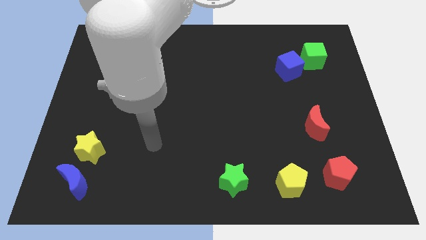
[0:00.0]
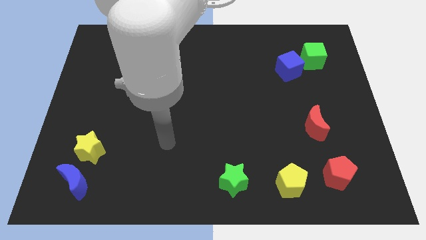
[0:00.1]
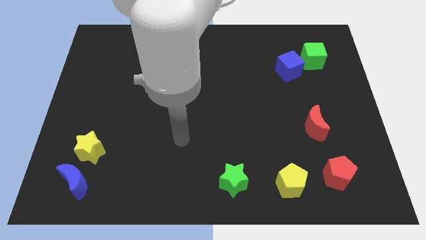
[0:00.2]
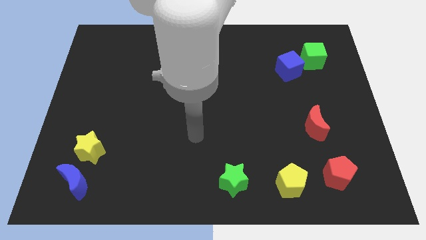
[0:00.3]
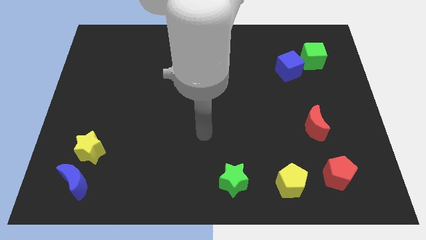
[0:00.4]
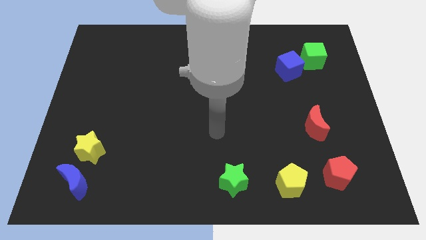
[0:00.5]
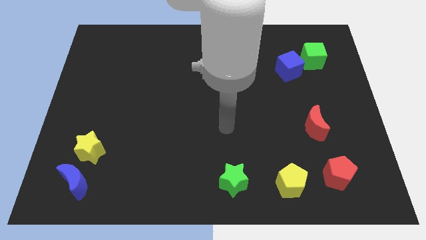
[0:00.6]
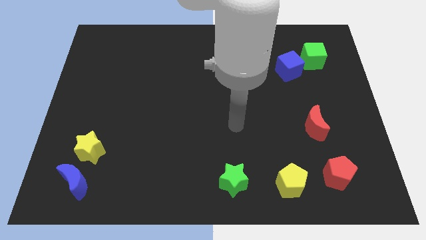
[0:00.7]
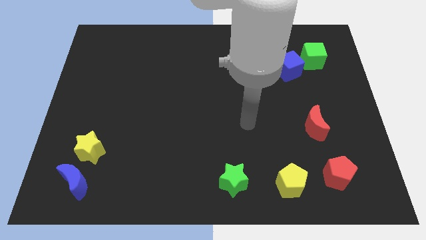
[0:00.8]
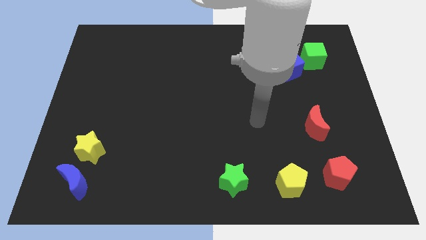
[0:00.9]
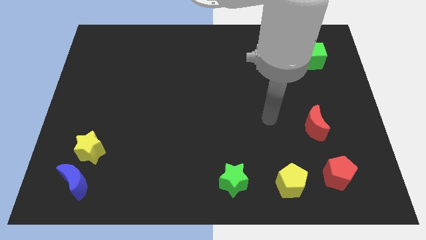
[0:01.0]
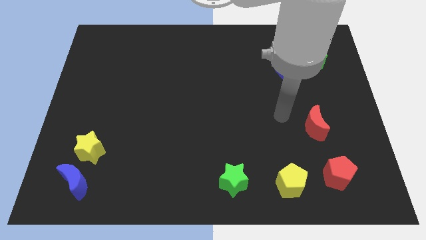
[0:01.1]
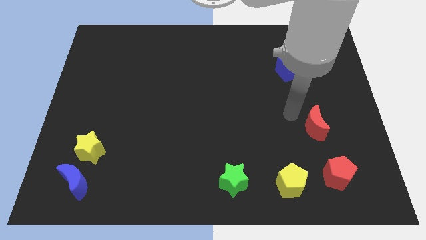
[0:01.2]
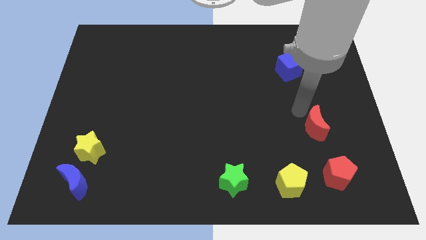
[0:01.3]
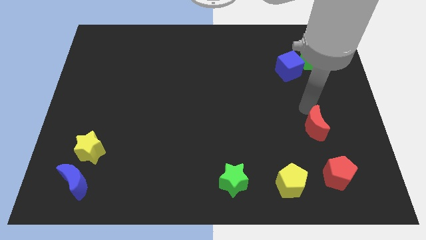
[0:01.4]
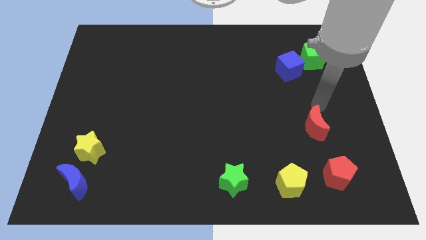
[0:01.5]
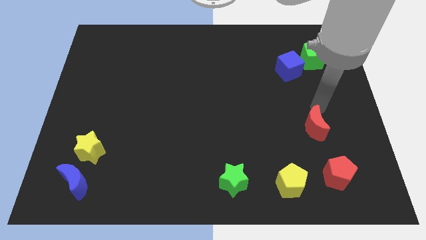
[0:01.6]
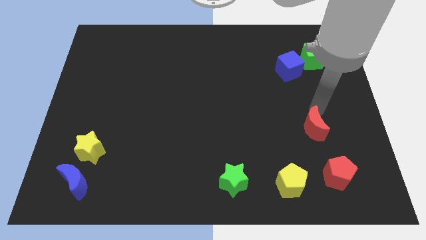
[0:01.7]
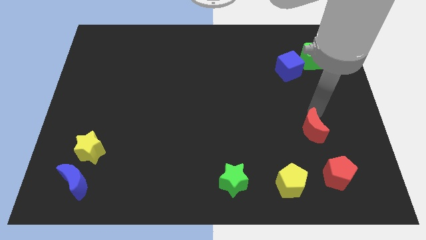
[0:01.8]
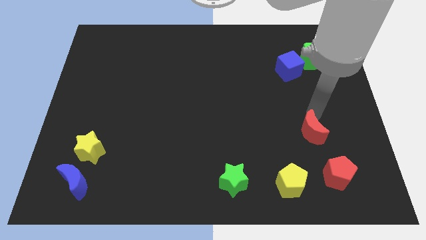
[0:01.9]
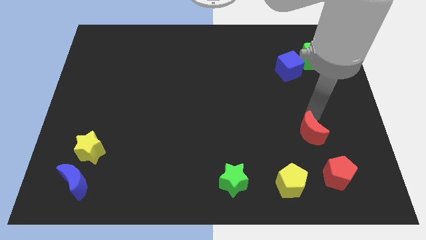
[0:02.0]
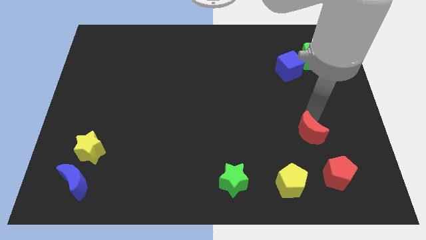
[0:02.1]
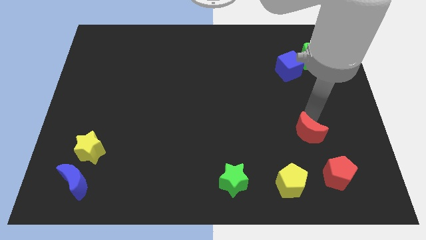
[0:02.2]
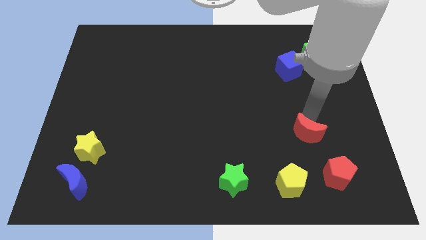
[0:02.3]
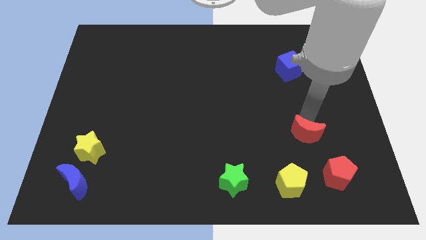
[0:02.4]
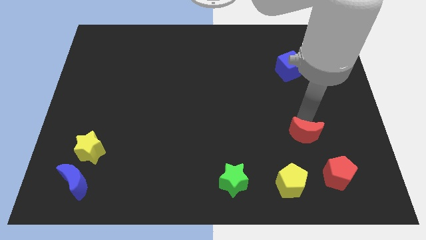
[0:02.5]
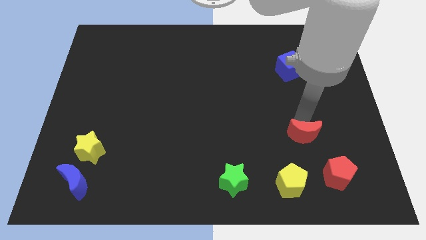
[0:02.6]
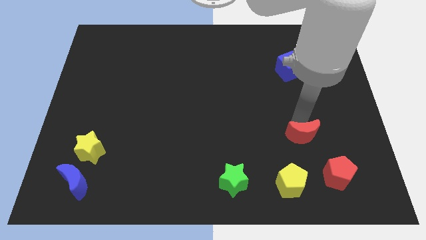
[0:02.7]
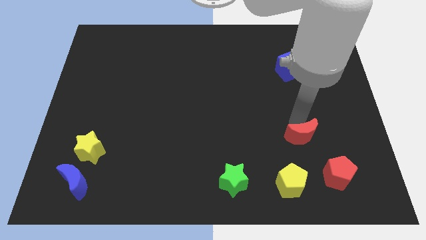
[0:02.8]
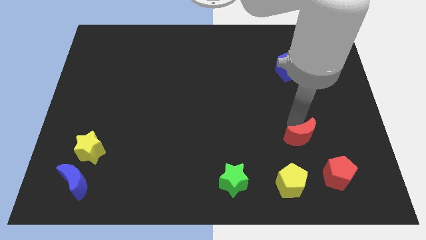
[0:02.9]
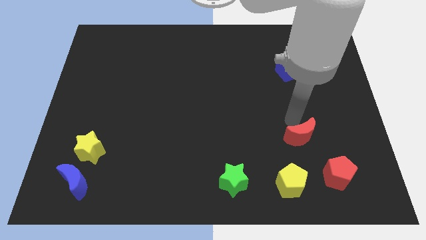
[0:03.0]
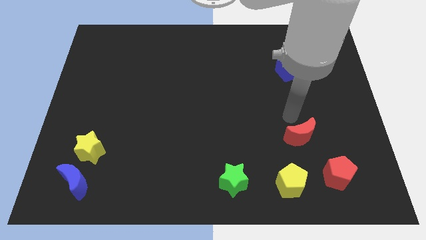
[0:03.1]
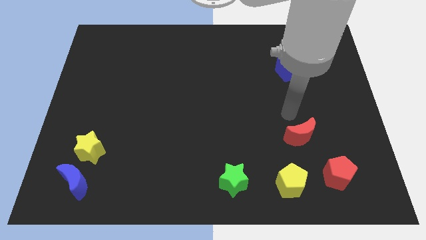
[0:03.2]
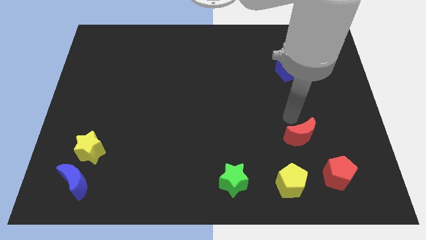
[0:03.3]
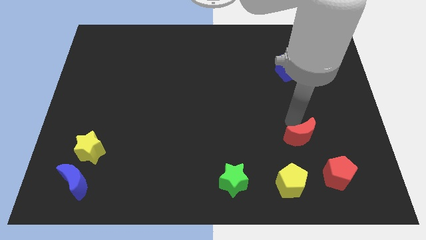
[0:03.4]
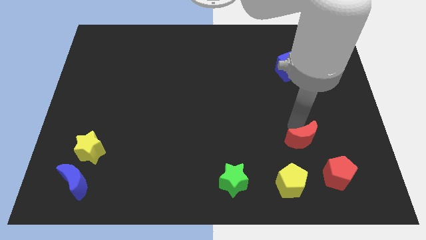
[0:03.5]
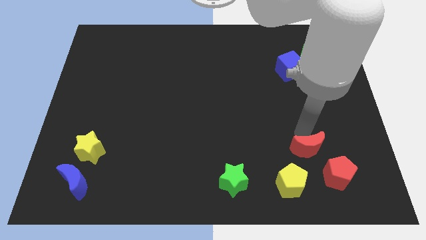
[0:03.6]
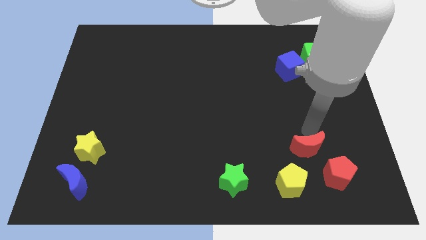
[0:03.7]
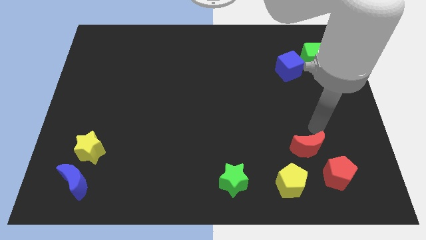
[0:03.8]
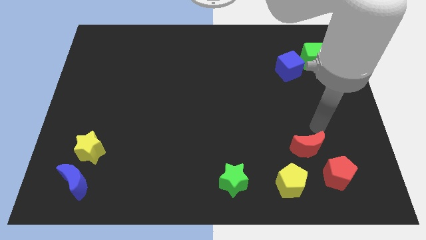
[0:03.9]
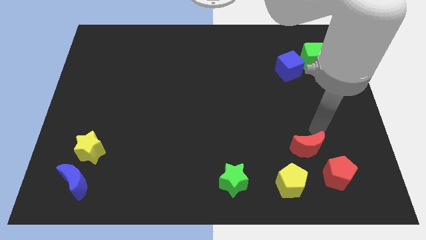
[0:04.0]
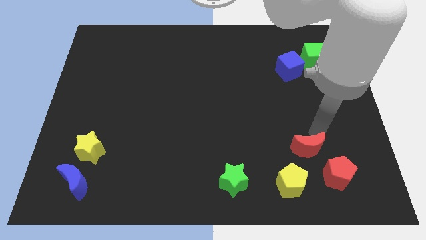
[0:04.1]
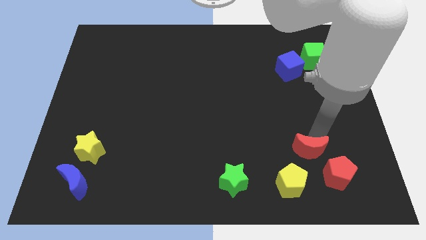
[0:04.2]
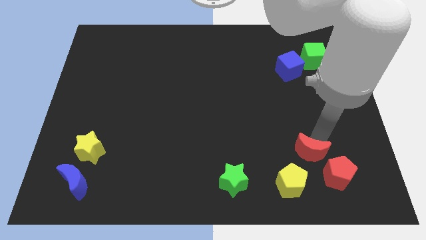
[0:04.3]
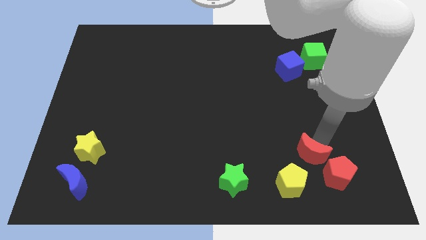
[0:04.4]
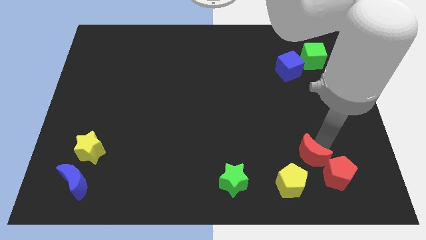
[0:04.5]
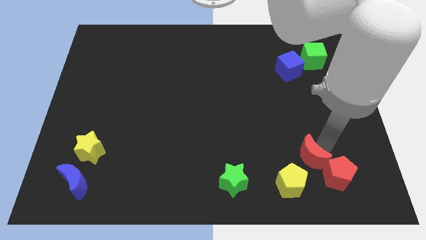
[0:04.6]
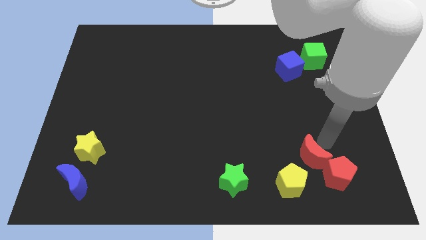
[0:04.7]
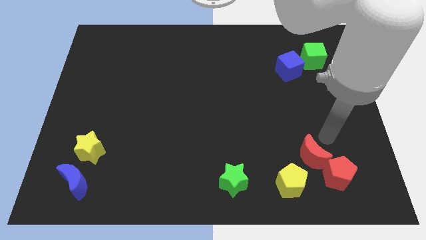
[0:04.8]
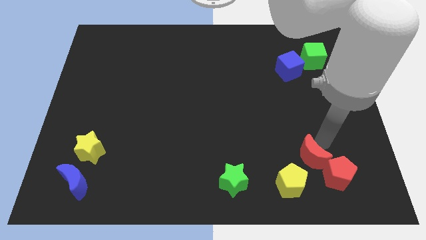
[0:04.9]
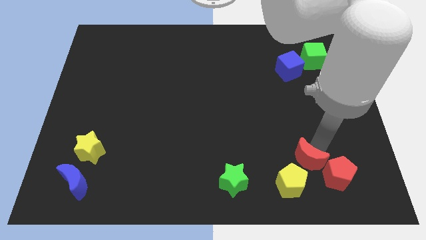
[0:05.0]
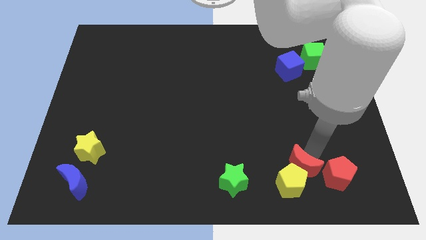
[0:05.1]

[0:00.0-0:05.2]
move the red moon close to the yellow pentagon

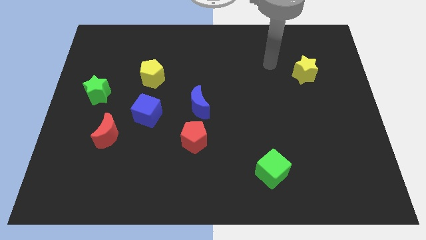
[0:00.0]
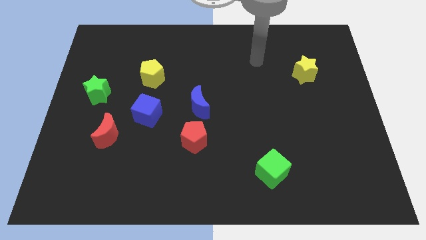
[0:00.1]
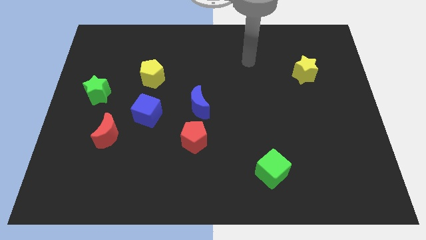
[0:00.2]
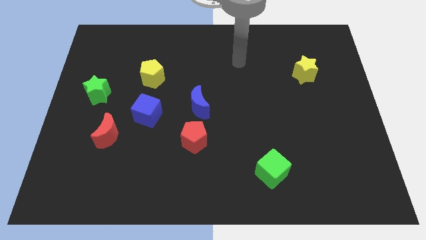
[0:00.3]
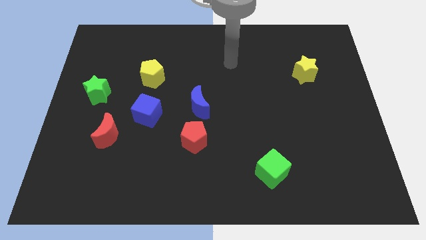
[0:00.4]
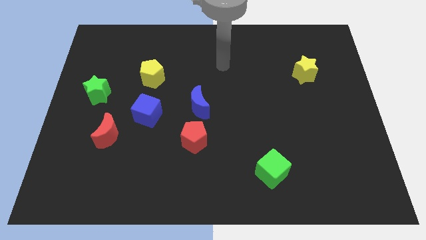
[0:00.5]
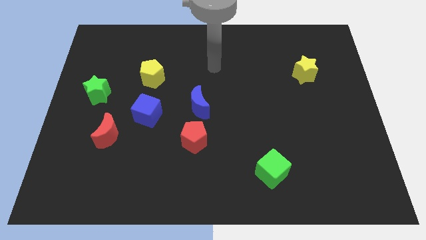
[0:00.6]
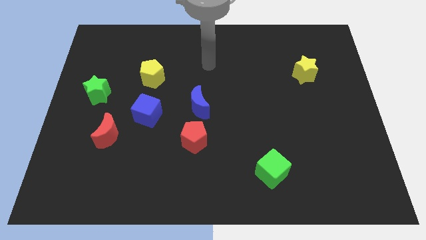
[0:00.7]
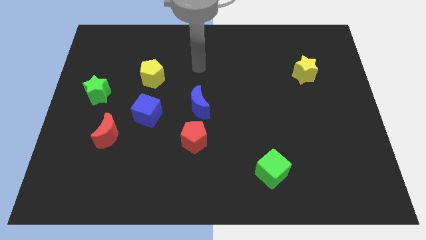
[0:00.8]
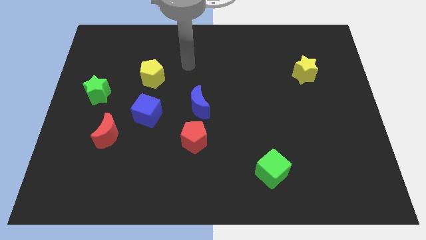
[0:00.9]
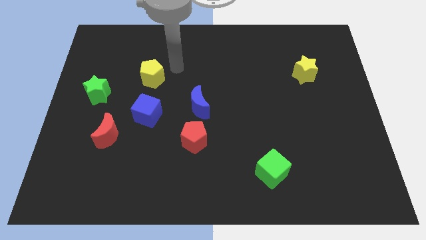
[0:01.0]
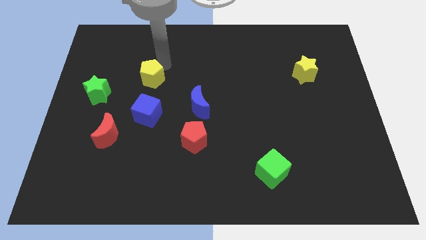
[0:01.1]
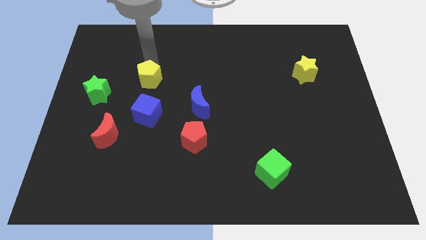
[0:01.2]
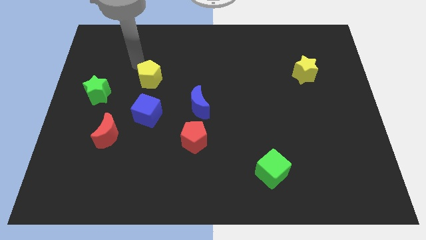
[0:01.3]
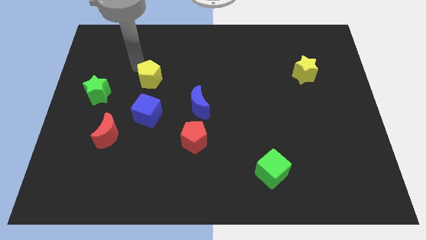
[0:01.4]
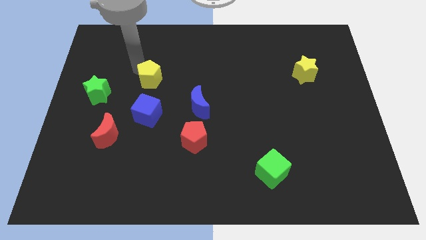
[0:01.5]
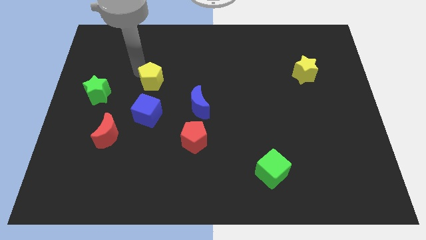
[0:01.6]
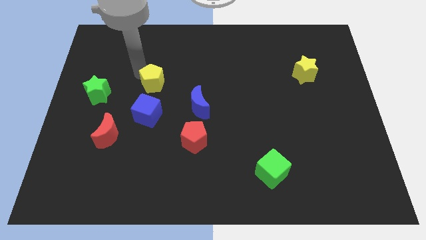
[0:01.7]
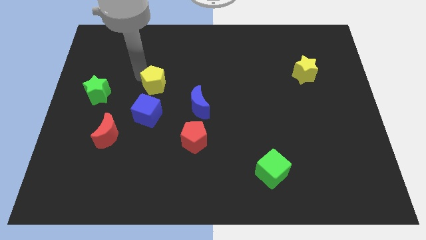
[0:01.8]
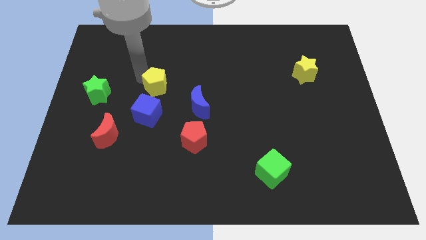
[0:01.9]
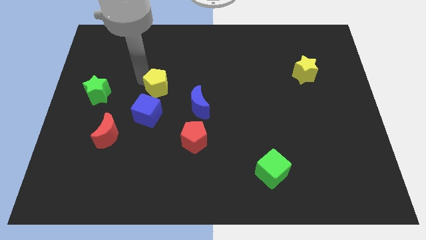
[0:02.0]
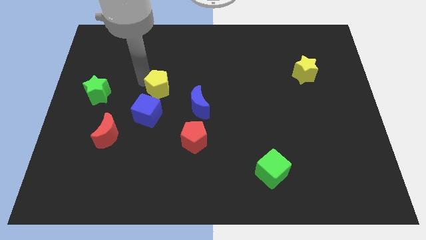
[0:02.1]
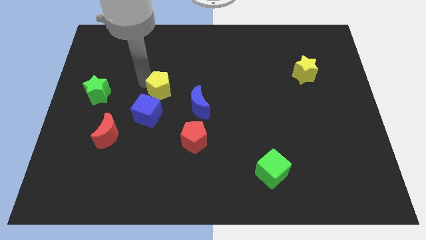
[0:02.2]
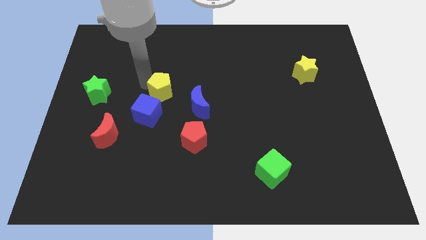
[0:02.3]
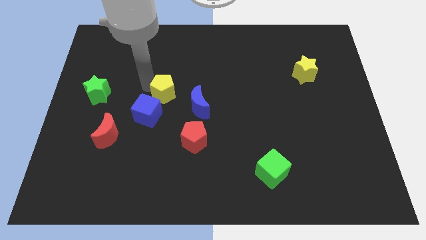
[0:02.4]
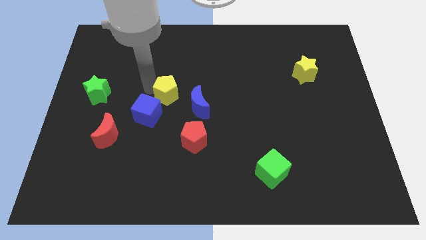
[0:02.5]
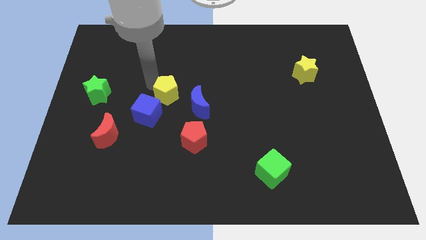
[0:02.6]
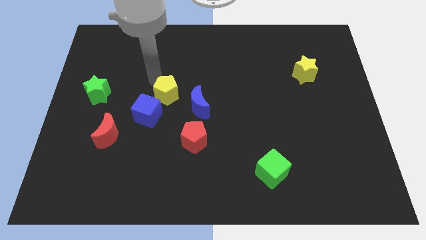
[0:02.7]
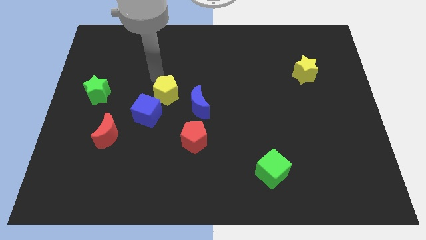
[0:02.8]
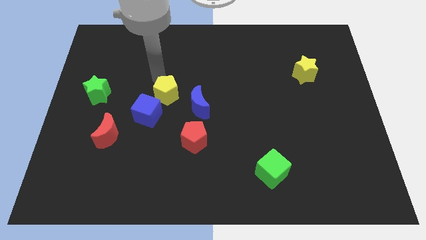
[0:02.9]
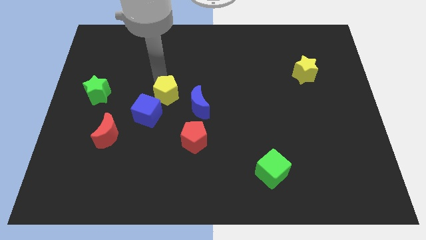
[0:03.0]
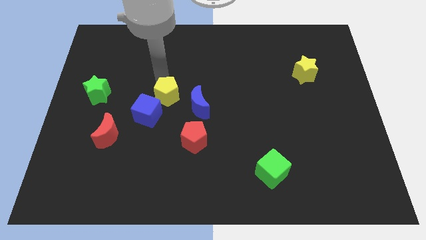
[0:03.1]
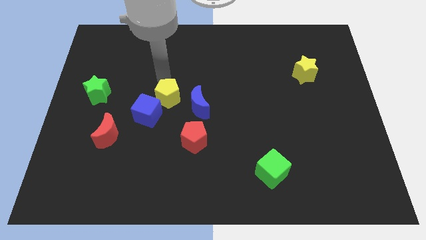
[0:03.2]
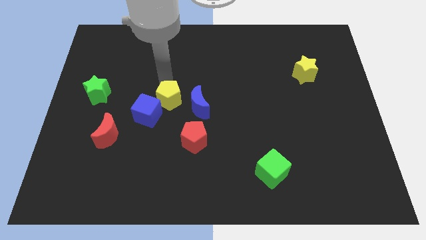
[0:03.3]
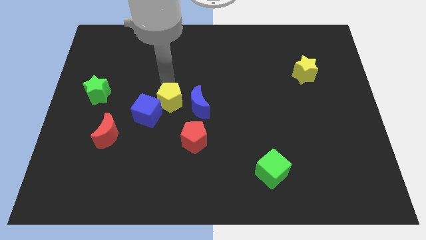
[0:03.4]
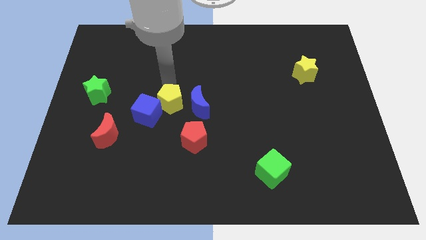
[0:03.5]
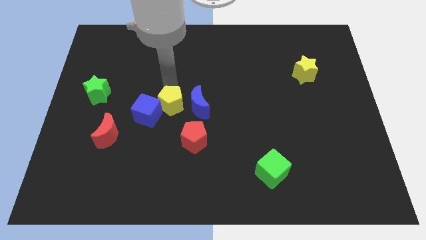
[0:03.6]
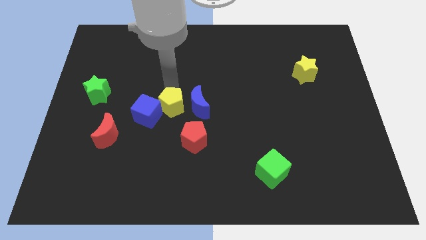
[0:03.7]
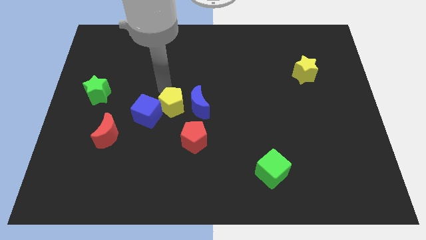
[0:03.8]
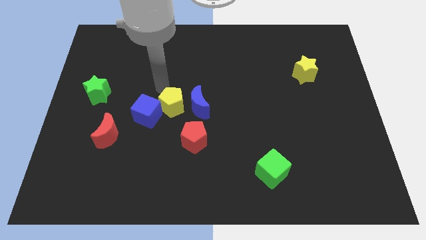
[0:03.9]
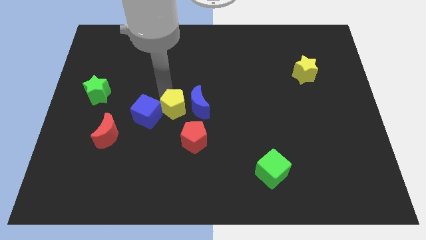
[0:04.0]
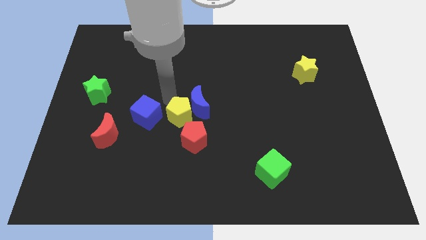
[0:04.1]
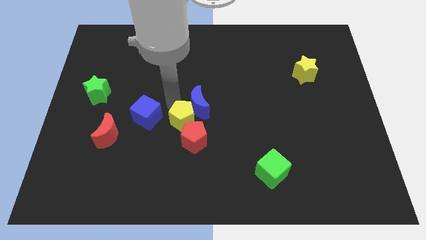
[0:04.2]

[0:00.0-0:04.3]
put the yellow pentagon close to the red pentagon
